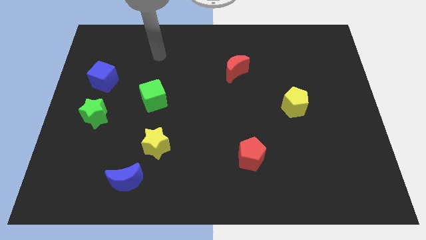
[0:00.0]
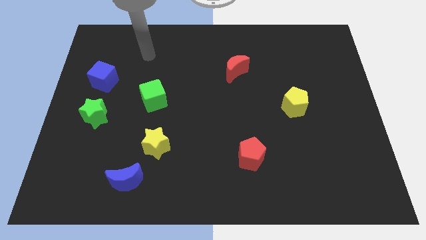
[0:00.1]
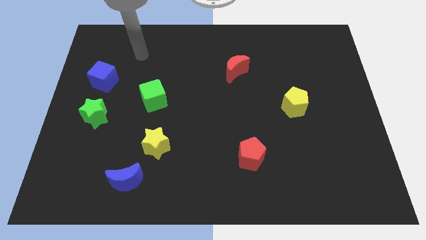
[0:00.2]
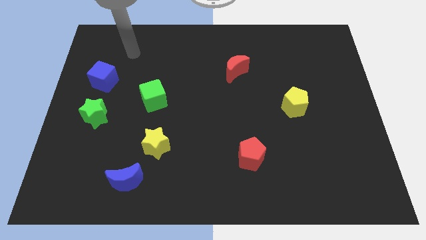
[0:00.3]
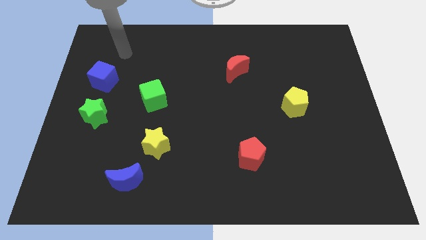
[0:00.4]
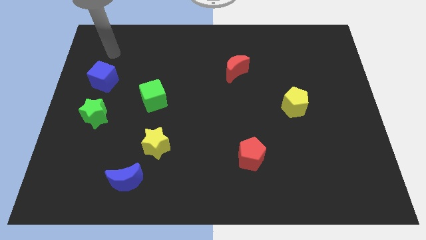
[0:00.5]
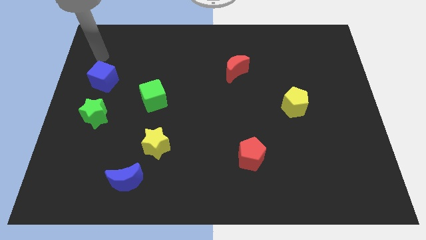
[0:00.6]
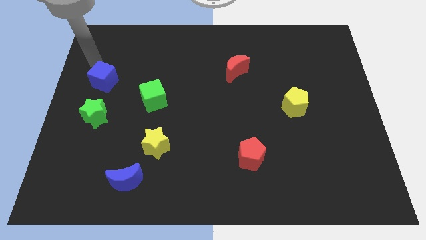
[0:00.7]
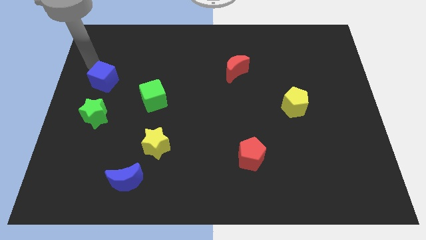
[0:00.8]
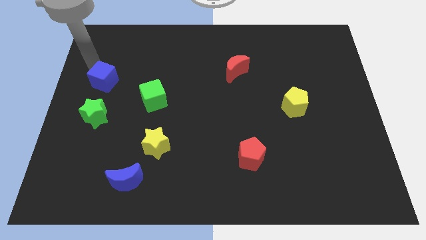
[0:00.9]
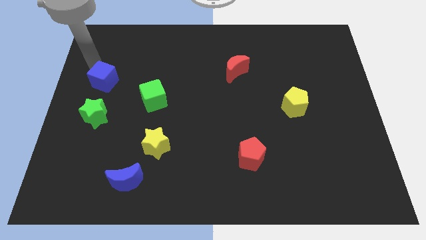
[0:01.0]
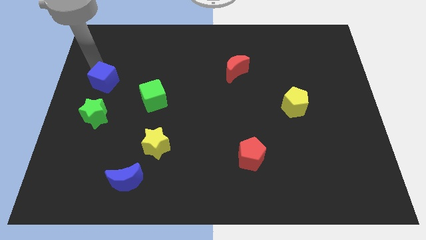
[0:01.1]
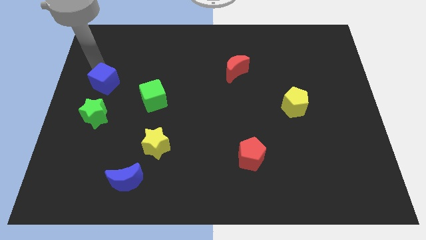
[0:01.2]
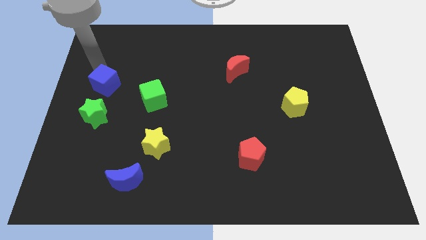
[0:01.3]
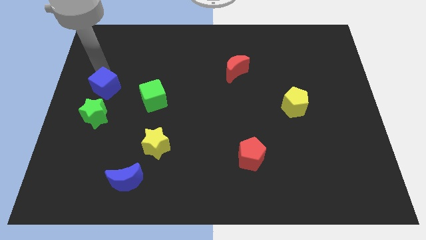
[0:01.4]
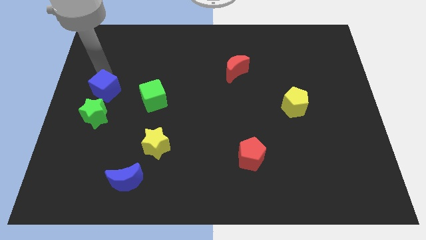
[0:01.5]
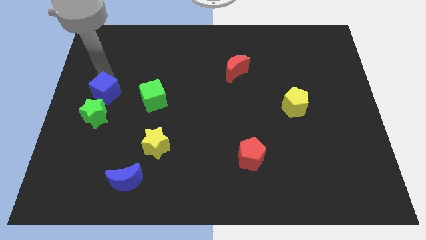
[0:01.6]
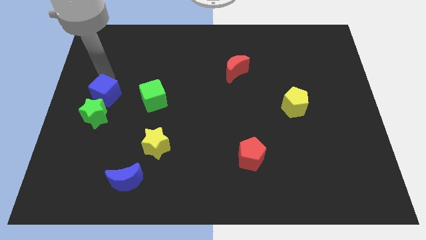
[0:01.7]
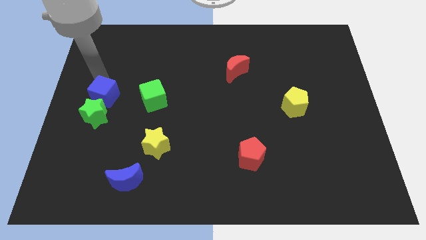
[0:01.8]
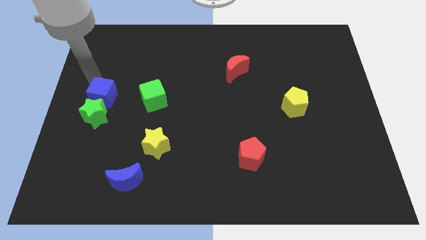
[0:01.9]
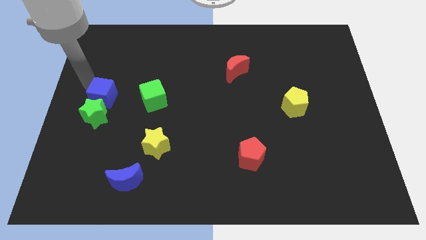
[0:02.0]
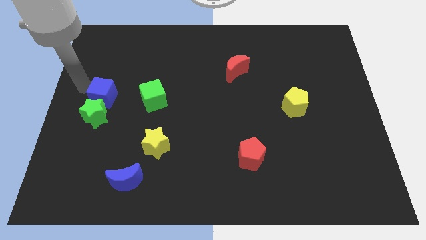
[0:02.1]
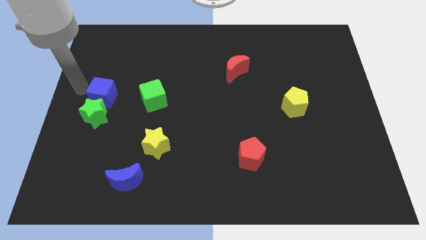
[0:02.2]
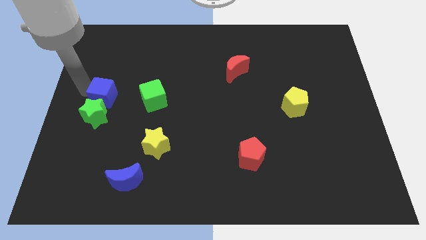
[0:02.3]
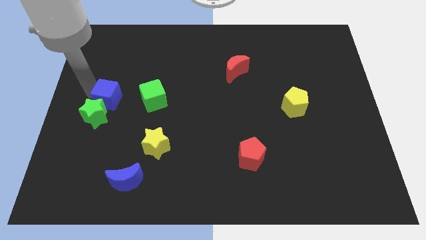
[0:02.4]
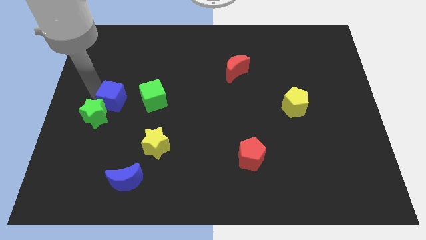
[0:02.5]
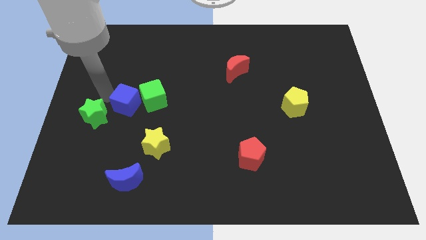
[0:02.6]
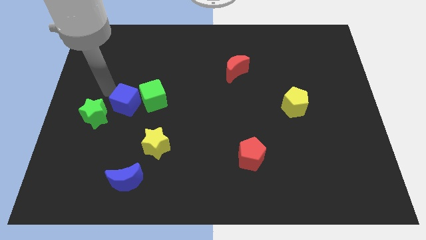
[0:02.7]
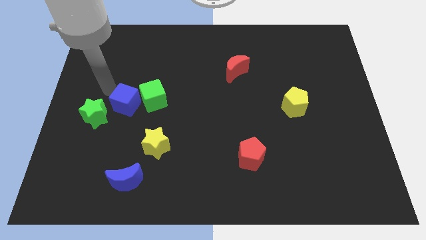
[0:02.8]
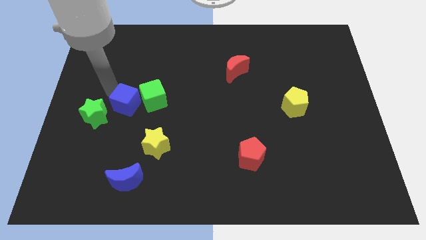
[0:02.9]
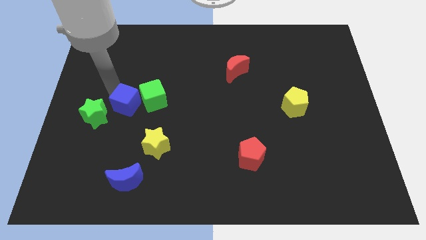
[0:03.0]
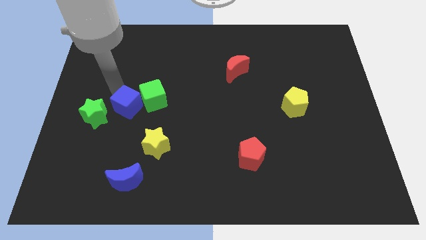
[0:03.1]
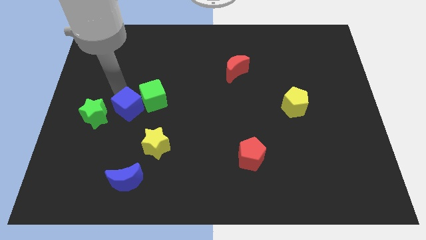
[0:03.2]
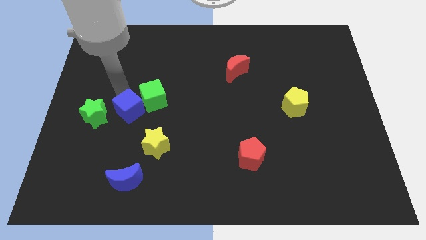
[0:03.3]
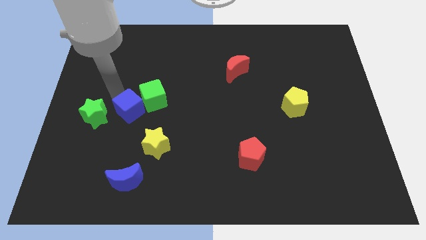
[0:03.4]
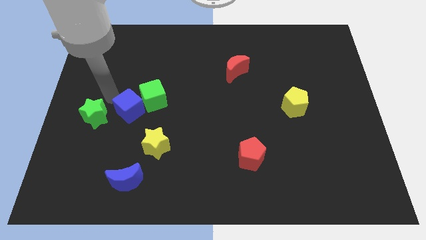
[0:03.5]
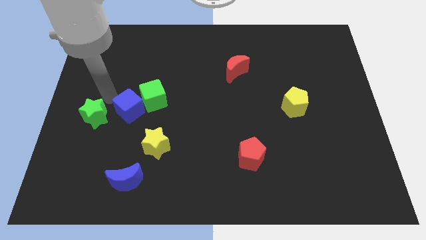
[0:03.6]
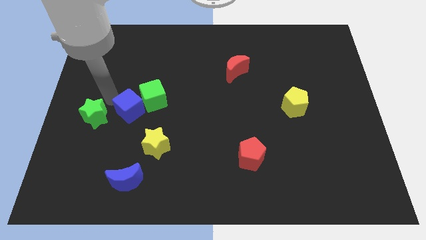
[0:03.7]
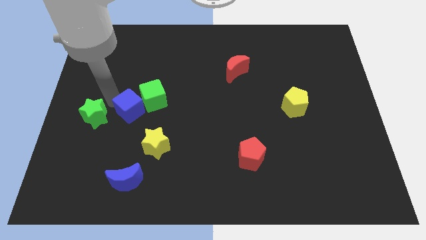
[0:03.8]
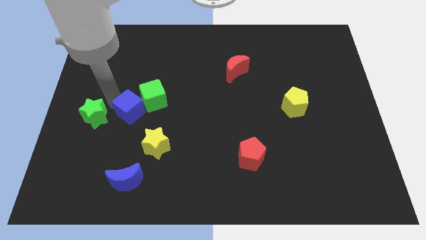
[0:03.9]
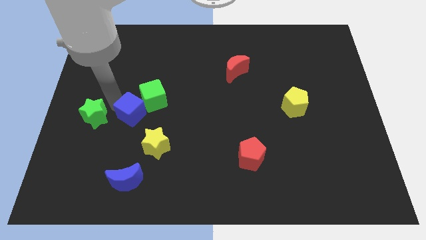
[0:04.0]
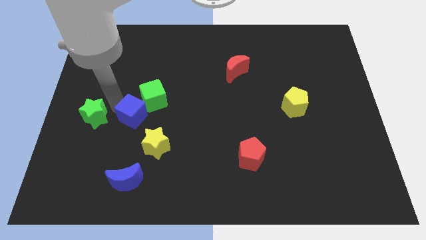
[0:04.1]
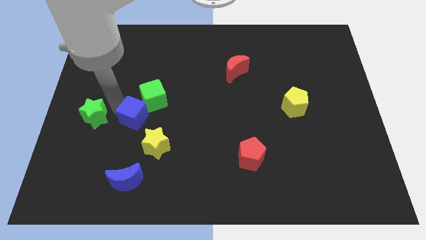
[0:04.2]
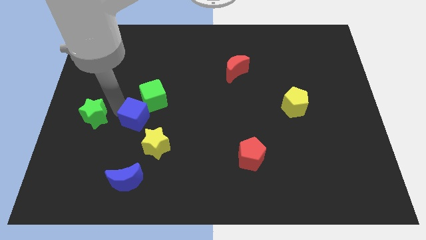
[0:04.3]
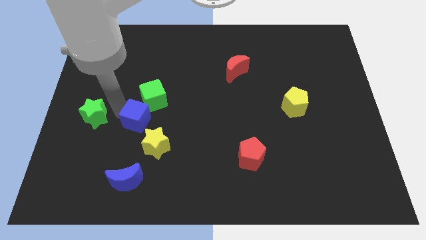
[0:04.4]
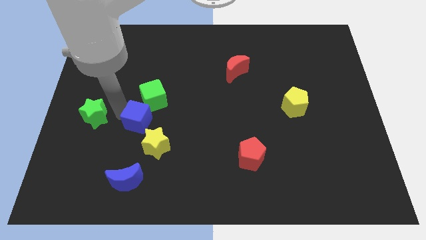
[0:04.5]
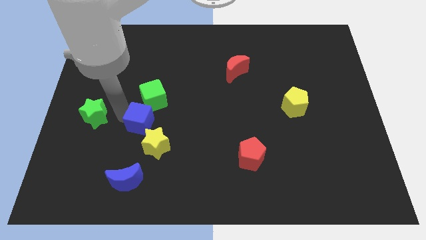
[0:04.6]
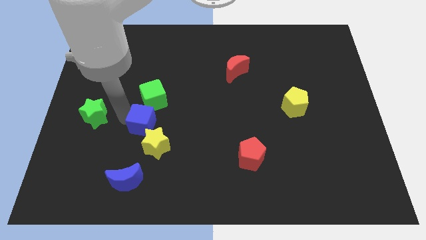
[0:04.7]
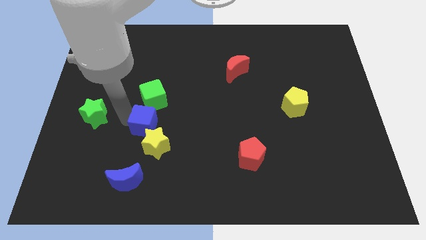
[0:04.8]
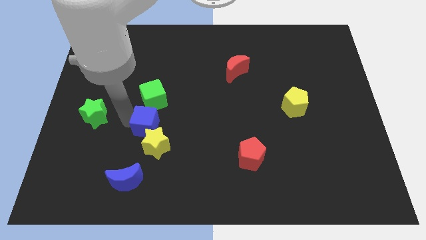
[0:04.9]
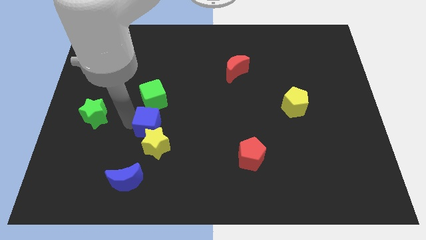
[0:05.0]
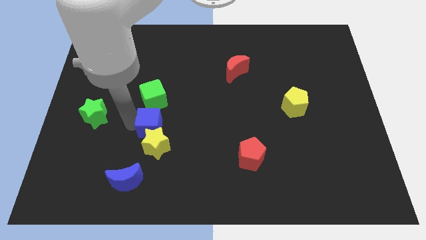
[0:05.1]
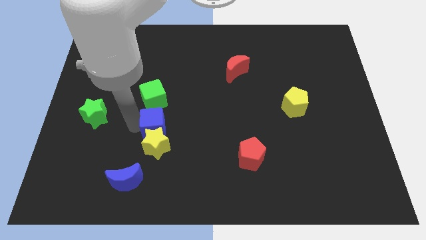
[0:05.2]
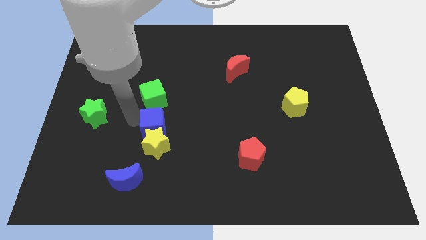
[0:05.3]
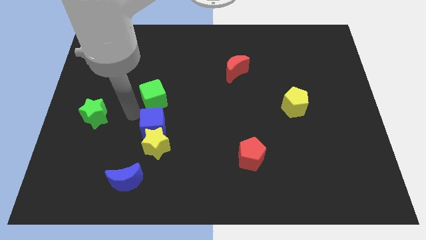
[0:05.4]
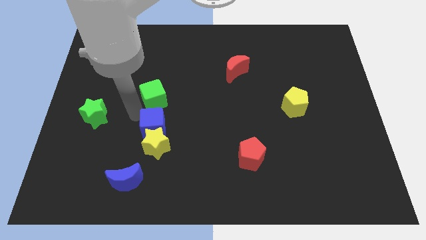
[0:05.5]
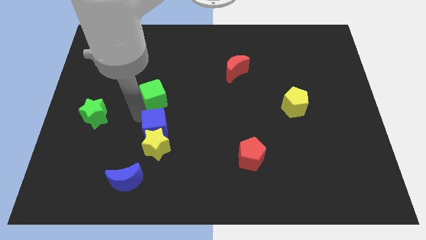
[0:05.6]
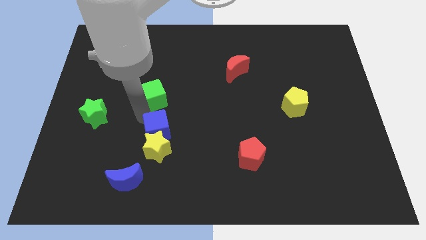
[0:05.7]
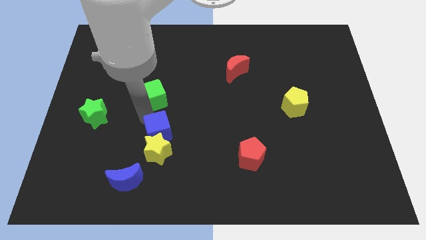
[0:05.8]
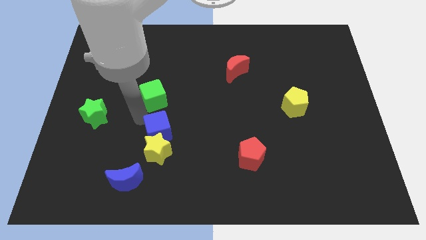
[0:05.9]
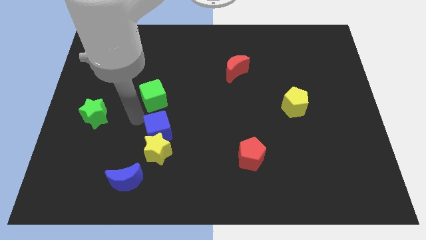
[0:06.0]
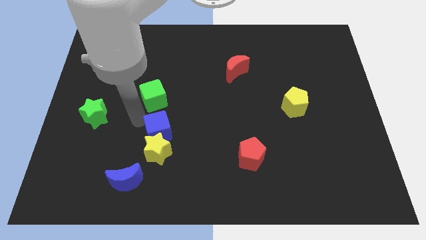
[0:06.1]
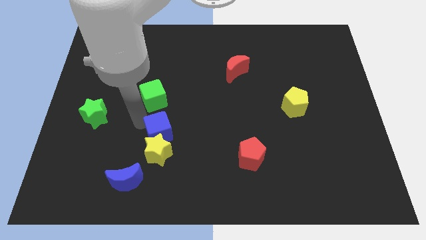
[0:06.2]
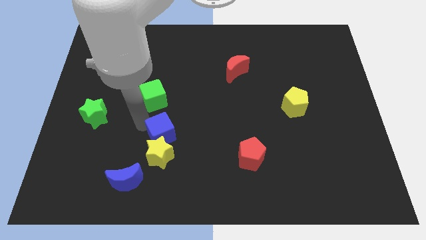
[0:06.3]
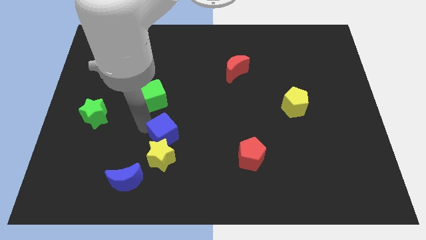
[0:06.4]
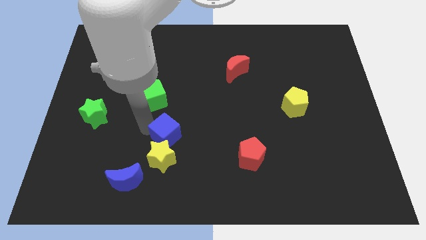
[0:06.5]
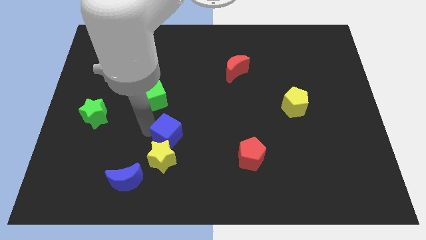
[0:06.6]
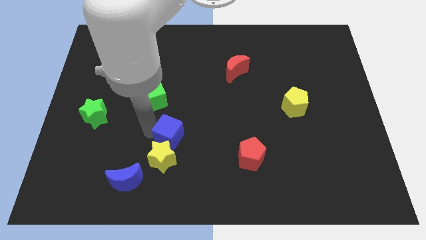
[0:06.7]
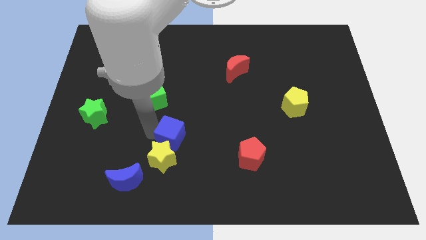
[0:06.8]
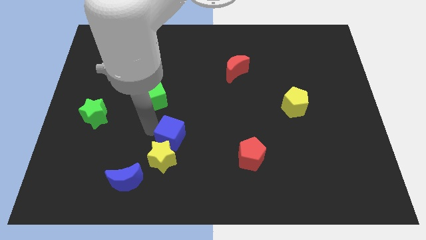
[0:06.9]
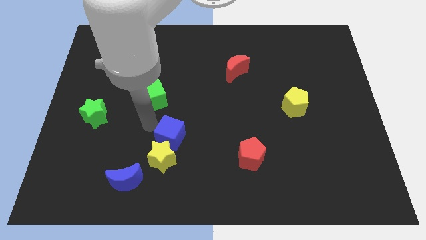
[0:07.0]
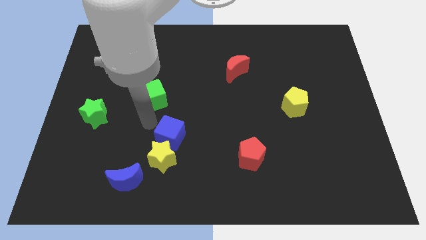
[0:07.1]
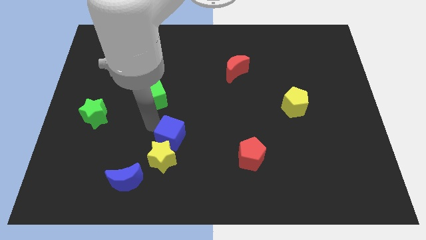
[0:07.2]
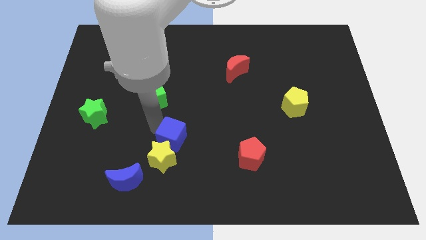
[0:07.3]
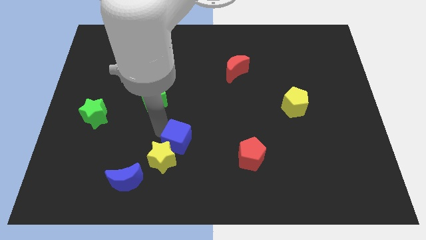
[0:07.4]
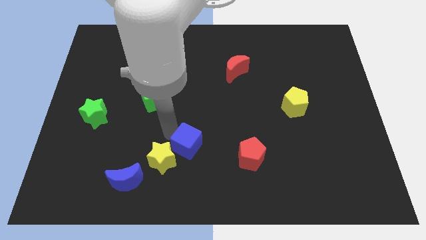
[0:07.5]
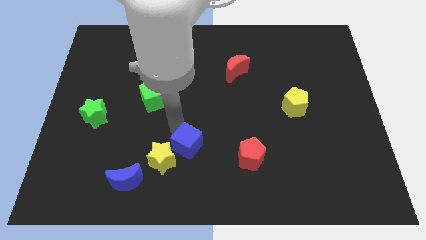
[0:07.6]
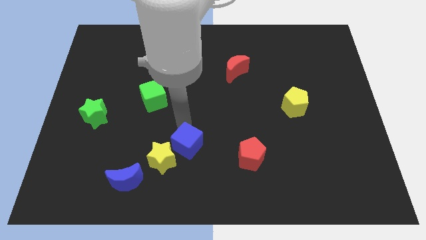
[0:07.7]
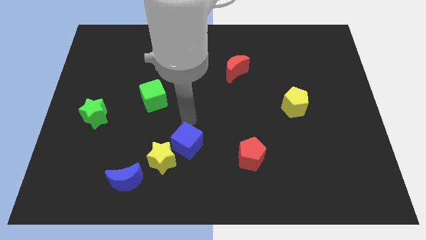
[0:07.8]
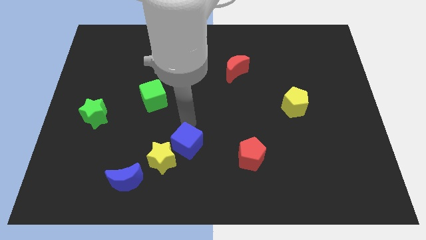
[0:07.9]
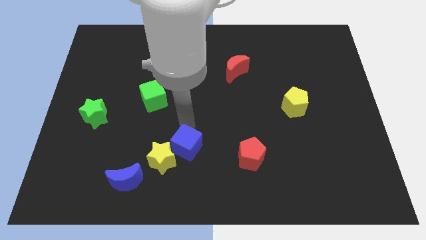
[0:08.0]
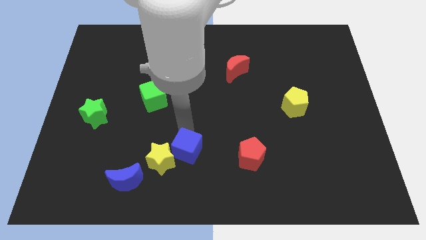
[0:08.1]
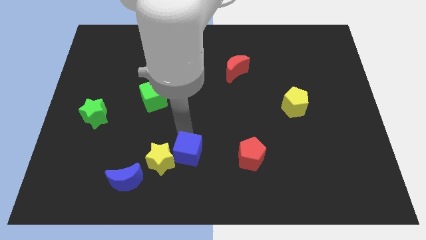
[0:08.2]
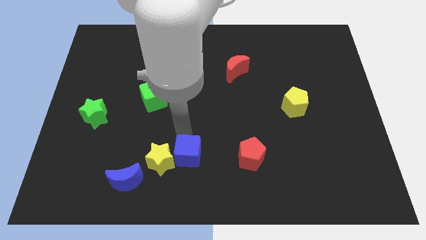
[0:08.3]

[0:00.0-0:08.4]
push the blue cube to the bottom right of the yellow star
